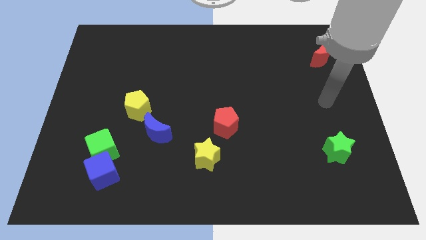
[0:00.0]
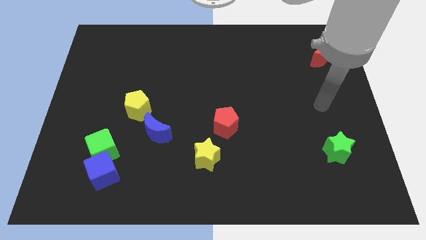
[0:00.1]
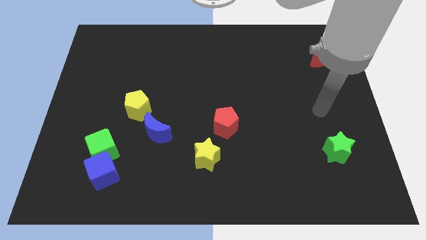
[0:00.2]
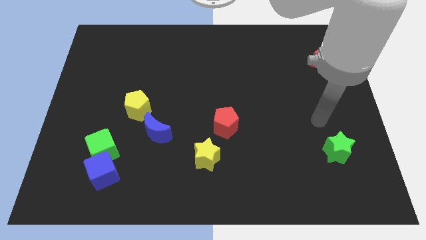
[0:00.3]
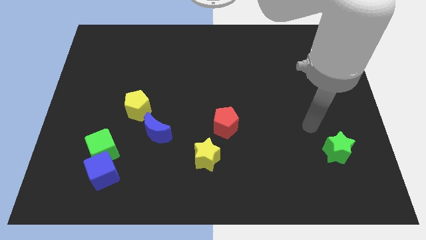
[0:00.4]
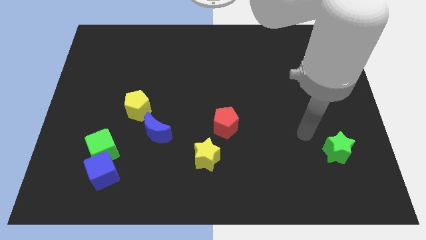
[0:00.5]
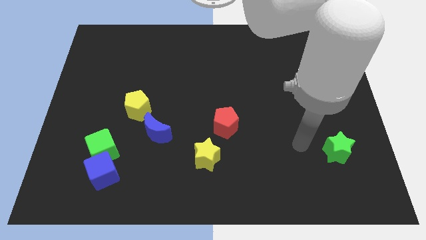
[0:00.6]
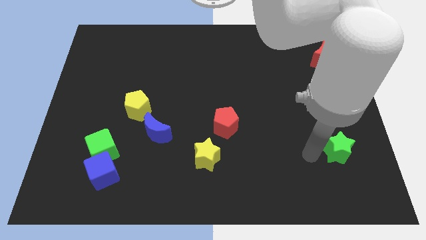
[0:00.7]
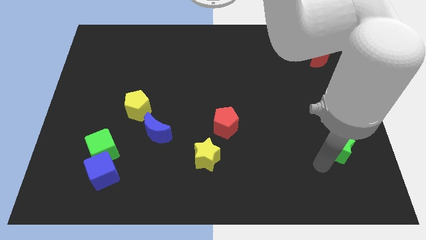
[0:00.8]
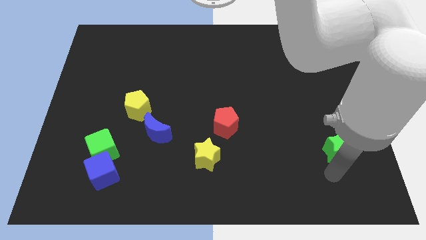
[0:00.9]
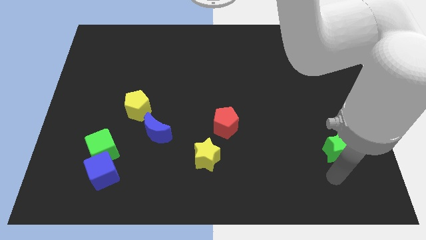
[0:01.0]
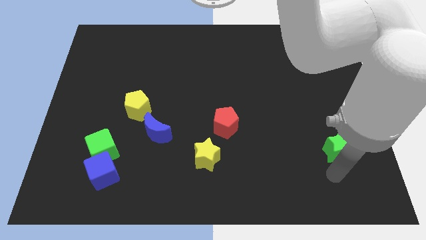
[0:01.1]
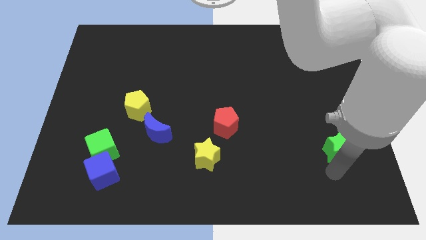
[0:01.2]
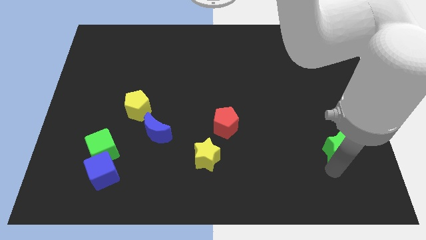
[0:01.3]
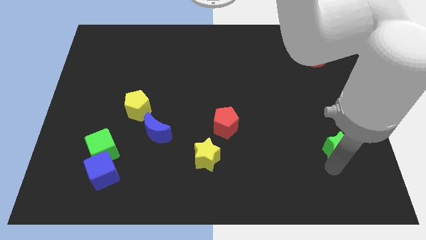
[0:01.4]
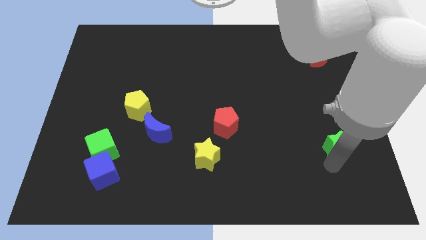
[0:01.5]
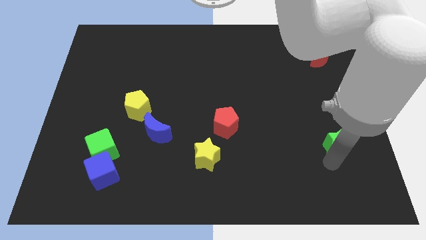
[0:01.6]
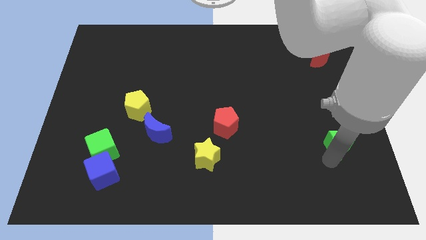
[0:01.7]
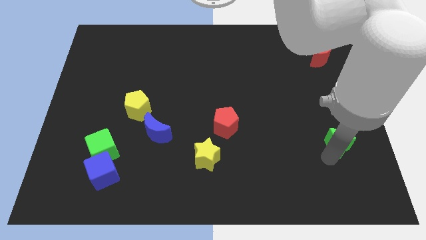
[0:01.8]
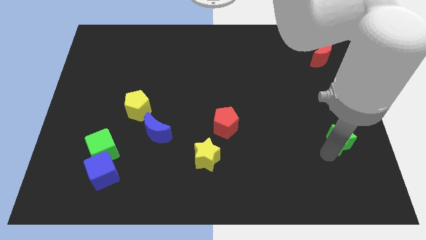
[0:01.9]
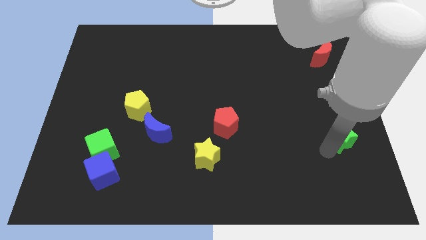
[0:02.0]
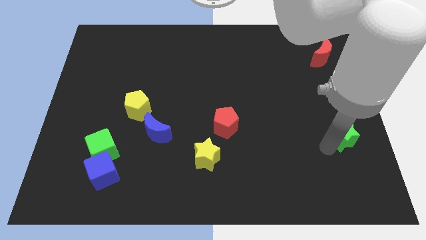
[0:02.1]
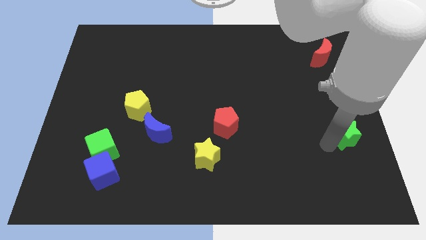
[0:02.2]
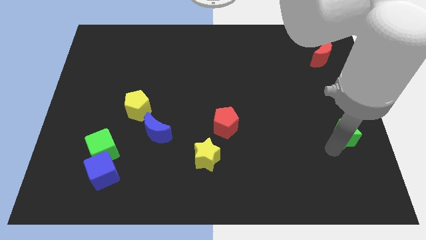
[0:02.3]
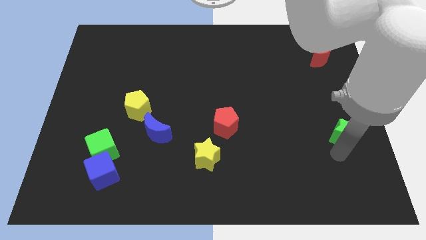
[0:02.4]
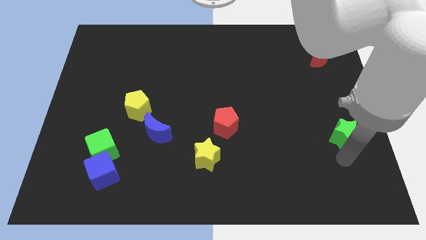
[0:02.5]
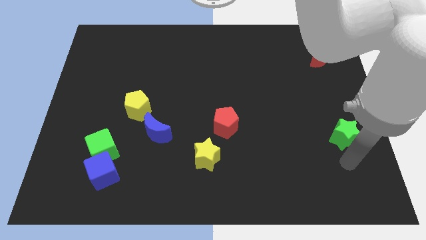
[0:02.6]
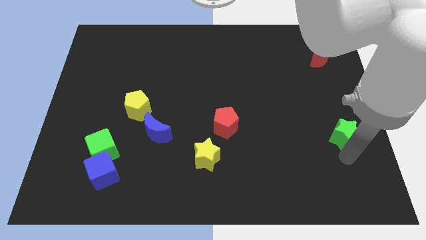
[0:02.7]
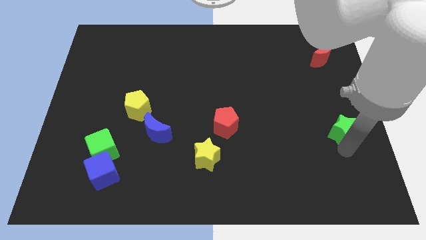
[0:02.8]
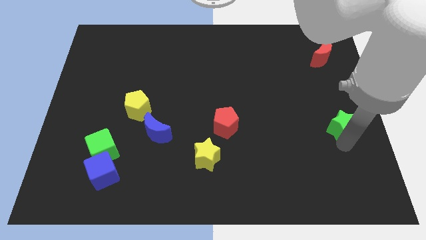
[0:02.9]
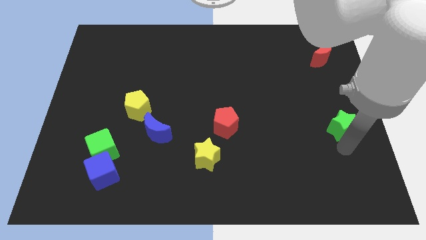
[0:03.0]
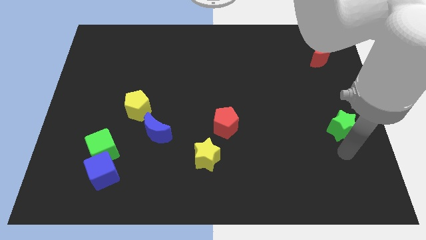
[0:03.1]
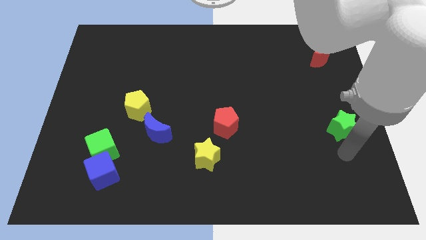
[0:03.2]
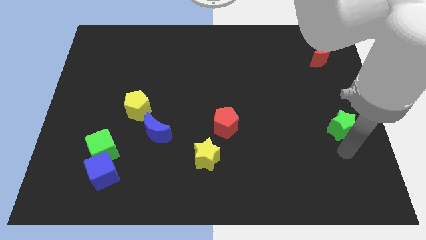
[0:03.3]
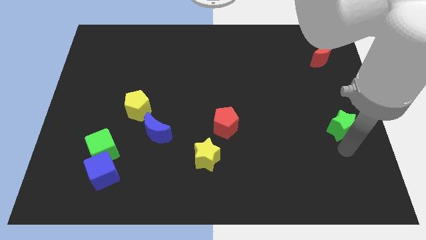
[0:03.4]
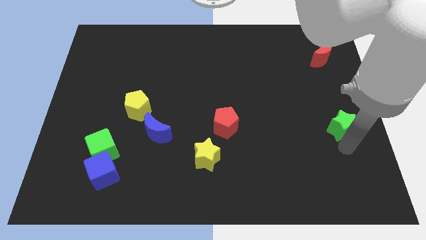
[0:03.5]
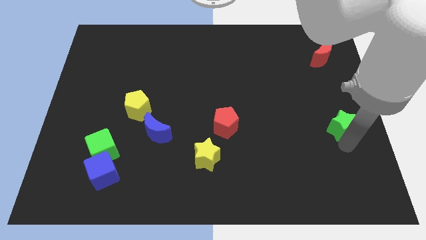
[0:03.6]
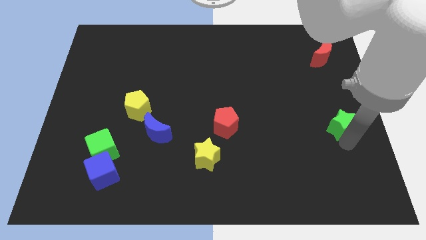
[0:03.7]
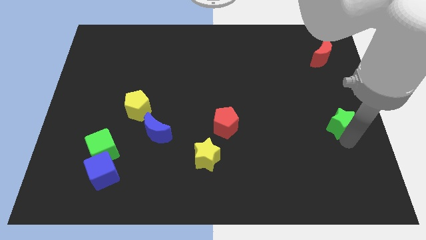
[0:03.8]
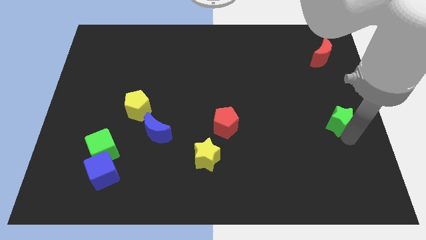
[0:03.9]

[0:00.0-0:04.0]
move the green star up a little

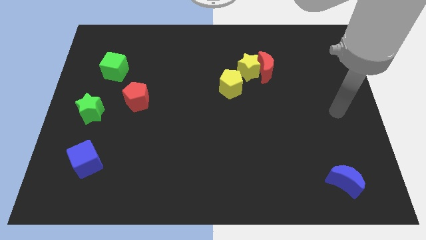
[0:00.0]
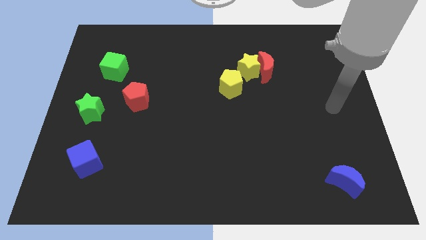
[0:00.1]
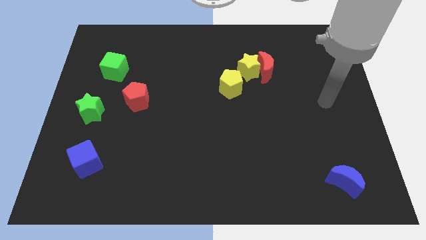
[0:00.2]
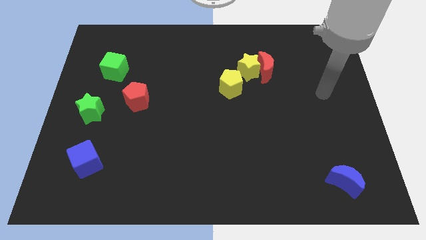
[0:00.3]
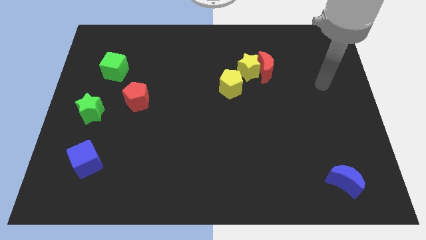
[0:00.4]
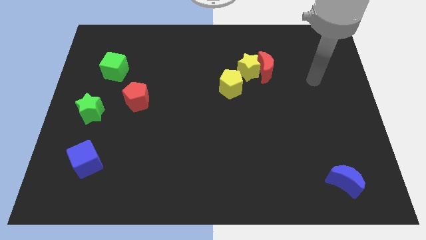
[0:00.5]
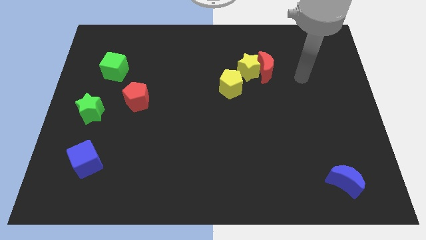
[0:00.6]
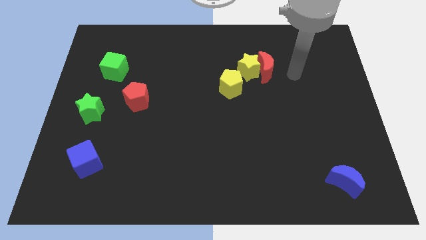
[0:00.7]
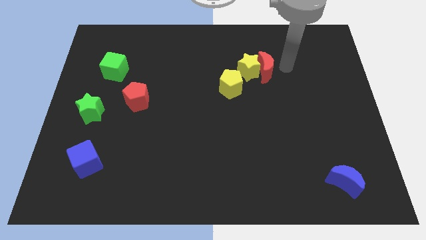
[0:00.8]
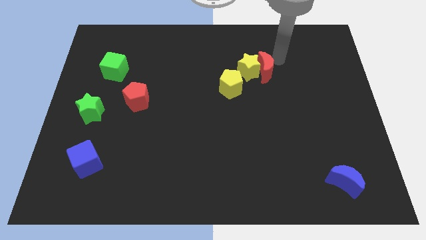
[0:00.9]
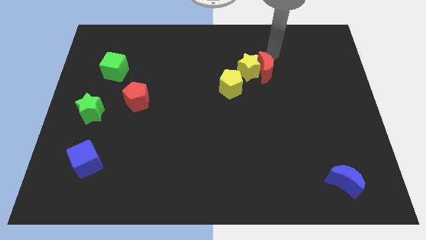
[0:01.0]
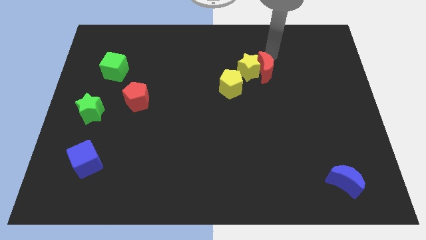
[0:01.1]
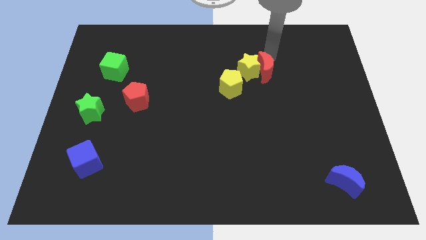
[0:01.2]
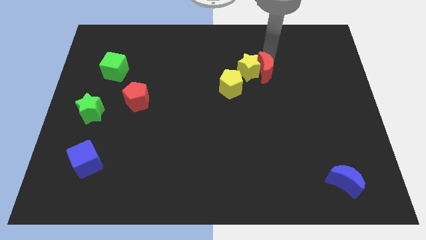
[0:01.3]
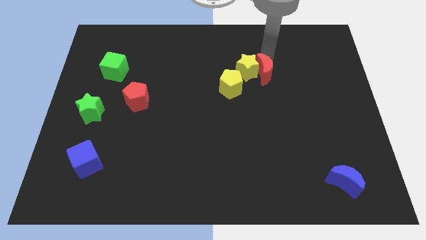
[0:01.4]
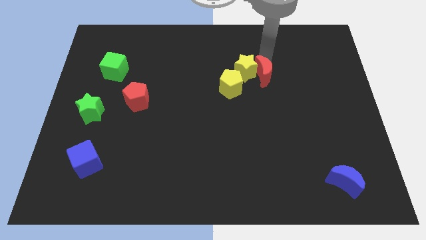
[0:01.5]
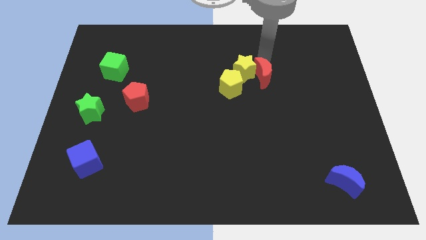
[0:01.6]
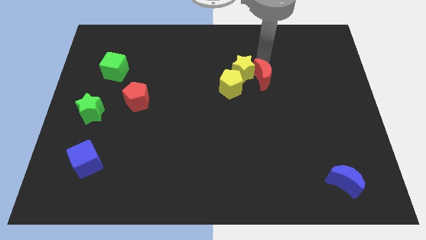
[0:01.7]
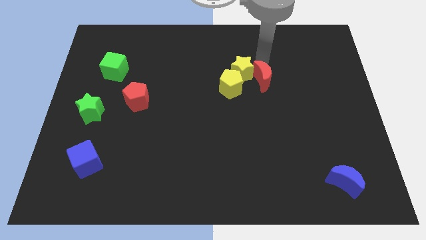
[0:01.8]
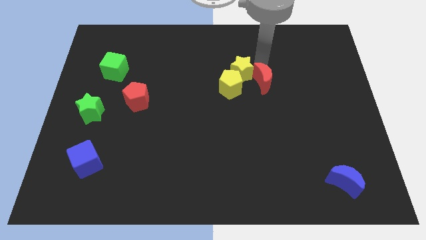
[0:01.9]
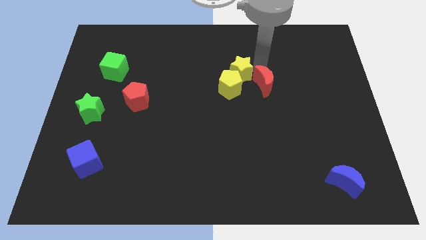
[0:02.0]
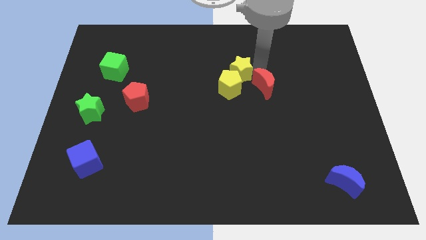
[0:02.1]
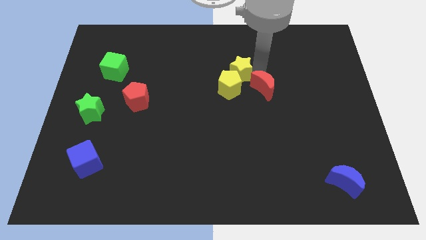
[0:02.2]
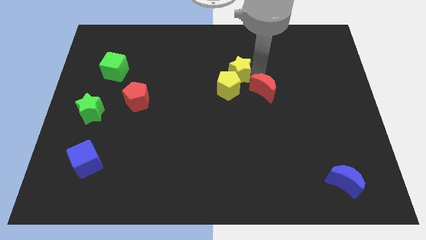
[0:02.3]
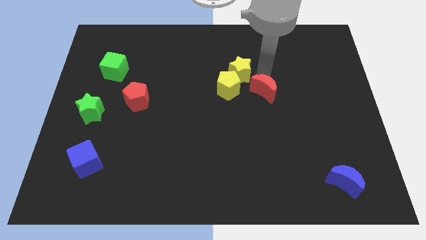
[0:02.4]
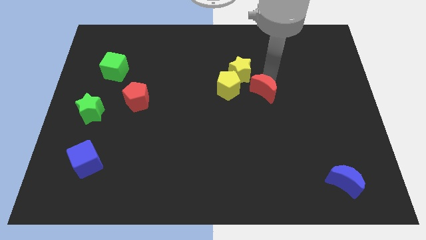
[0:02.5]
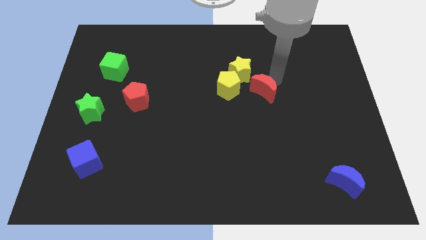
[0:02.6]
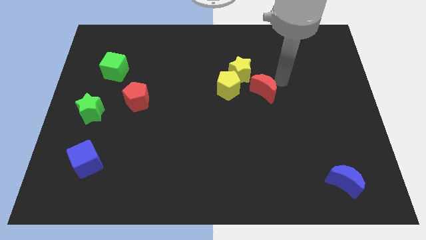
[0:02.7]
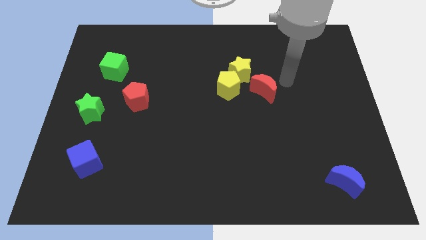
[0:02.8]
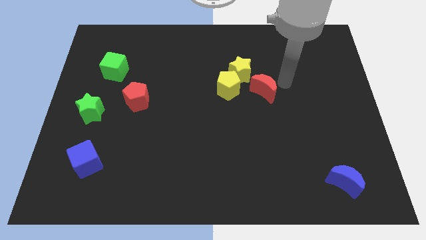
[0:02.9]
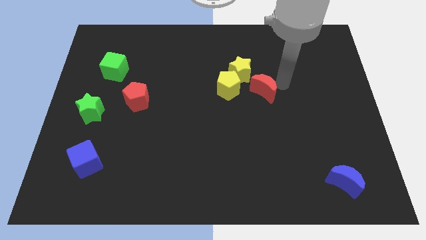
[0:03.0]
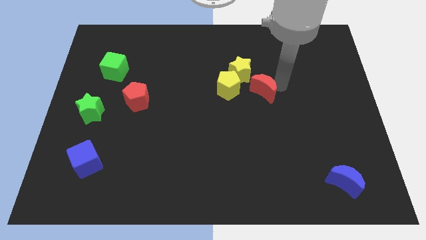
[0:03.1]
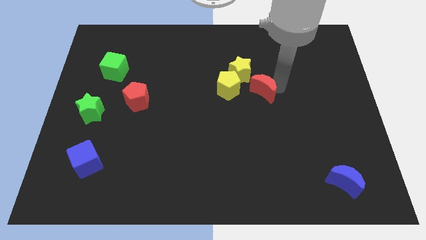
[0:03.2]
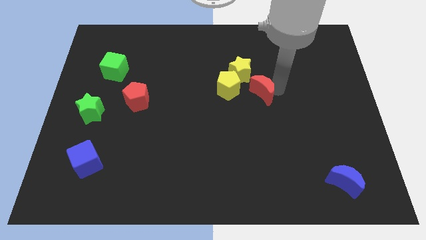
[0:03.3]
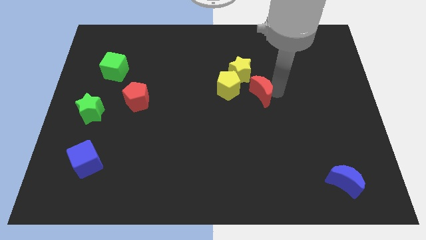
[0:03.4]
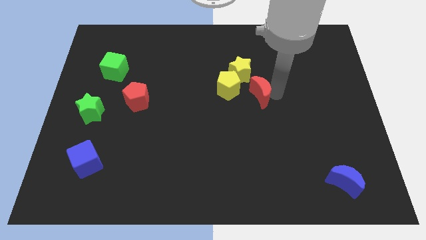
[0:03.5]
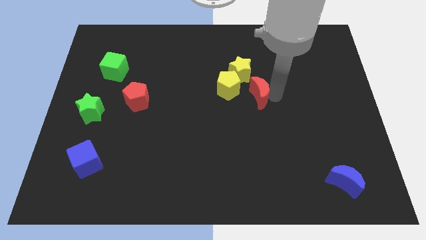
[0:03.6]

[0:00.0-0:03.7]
push the red moon diagonally downwards and left slightly
